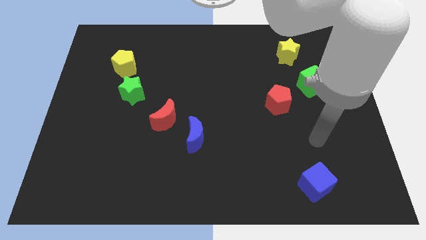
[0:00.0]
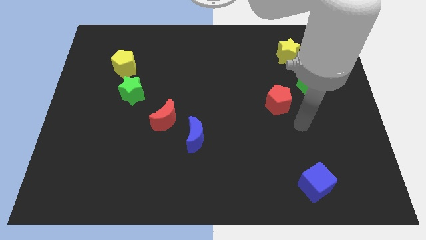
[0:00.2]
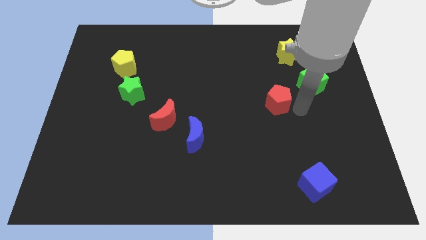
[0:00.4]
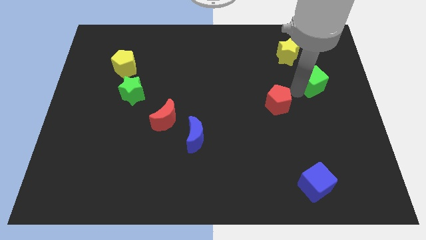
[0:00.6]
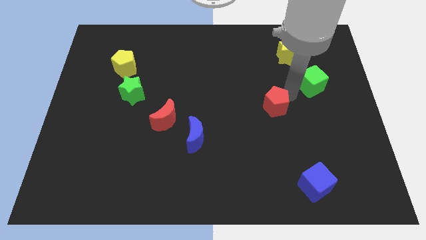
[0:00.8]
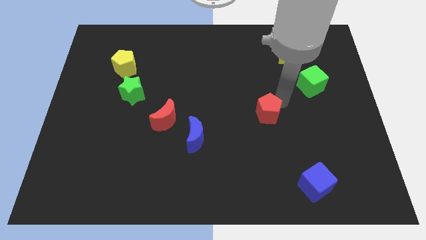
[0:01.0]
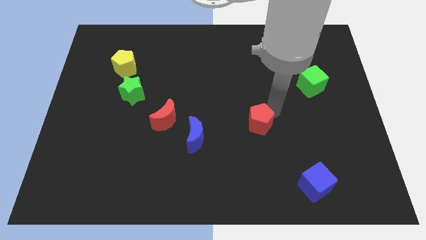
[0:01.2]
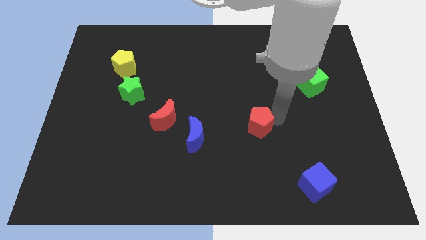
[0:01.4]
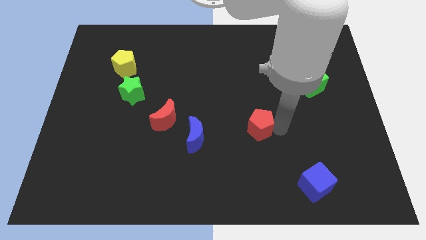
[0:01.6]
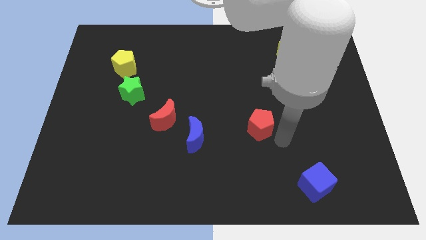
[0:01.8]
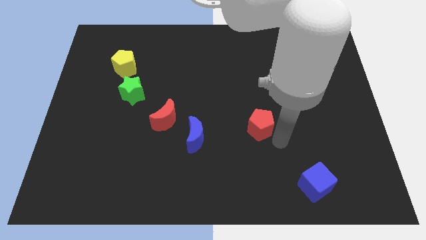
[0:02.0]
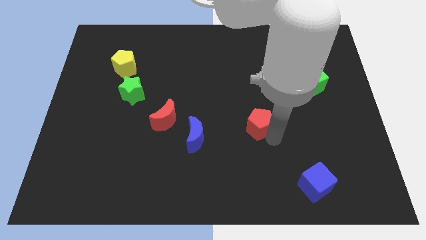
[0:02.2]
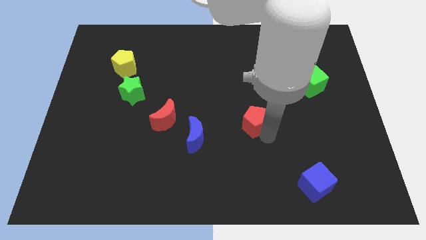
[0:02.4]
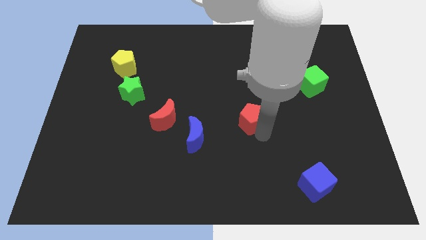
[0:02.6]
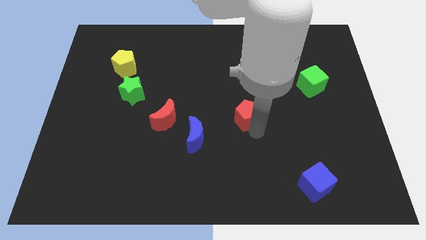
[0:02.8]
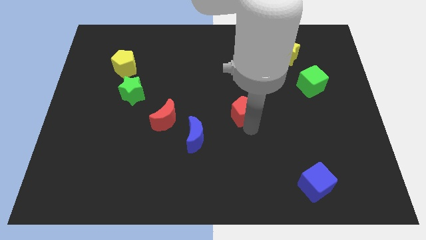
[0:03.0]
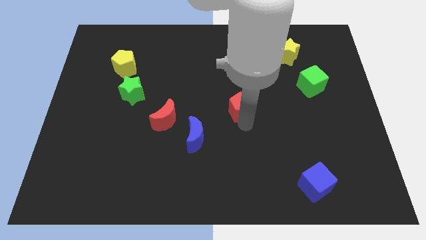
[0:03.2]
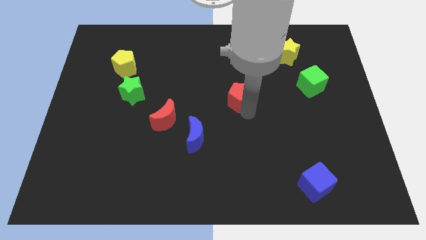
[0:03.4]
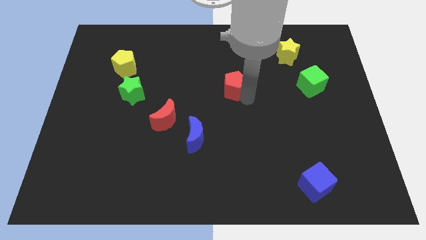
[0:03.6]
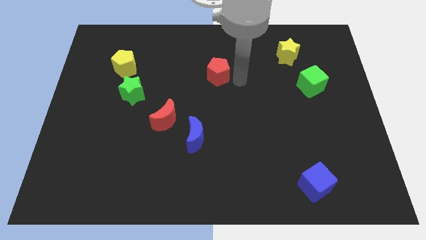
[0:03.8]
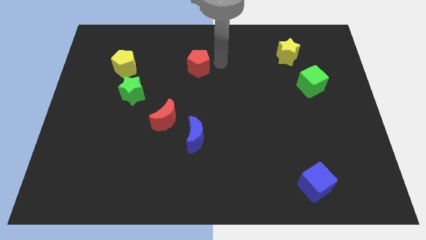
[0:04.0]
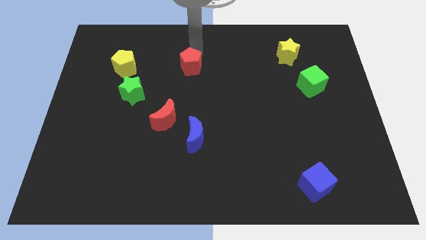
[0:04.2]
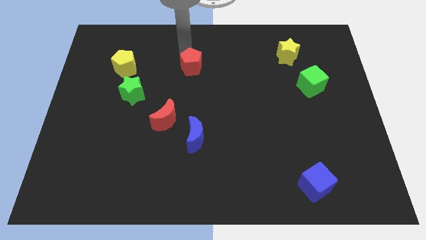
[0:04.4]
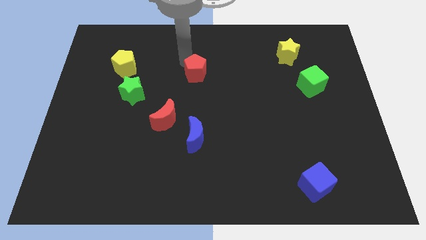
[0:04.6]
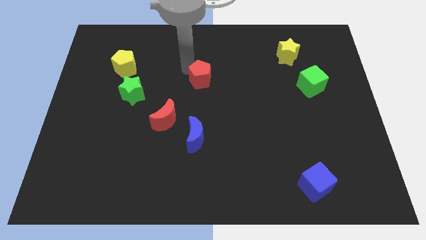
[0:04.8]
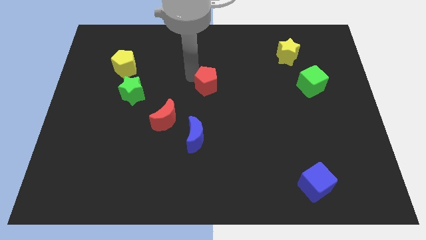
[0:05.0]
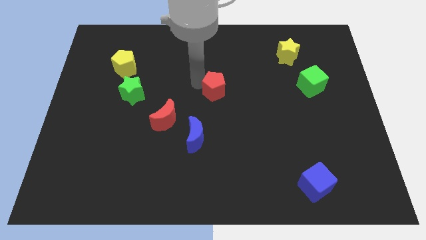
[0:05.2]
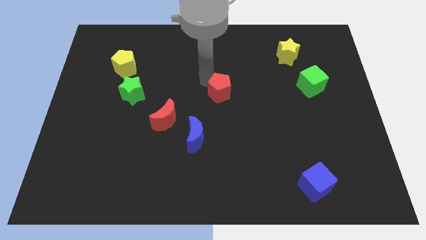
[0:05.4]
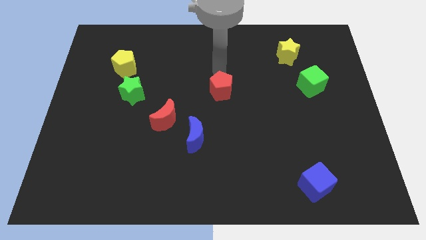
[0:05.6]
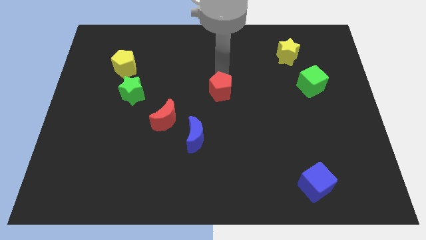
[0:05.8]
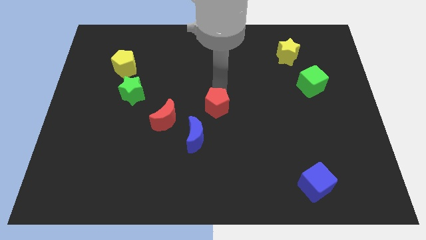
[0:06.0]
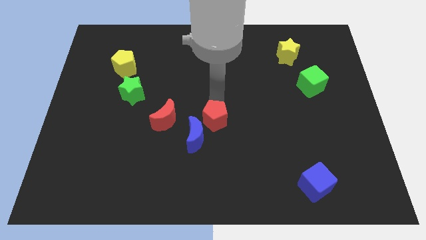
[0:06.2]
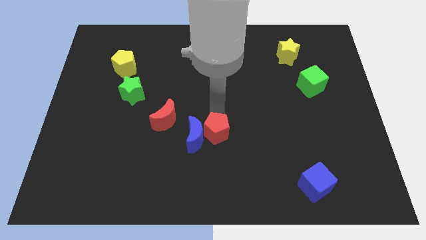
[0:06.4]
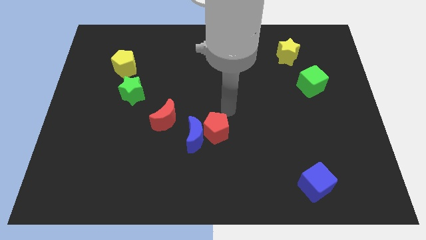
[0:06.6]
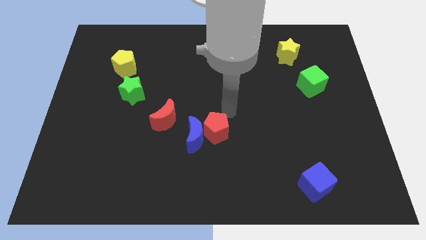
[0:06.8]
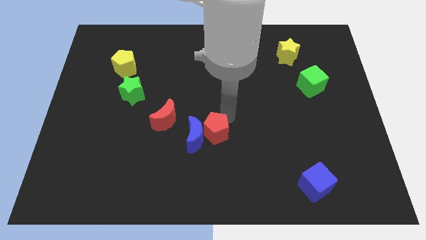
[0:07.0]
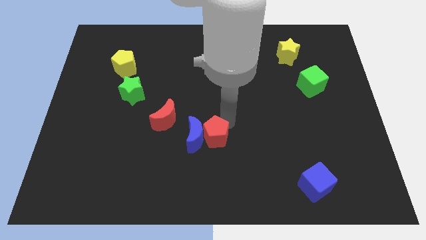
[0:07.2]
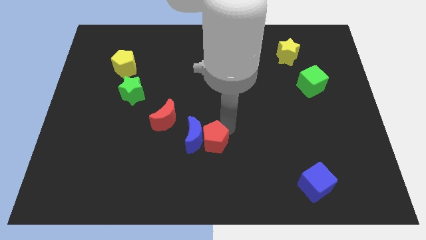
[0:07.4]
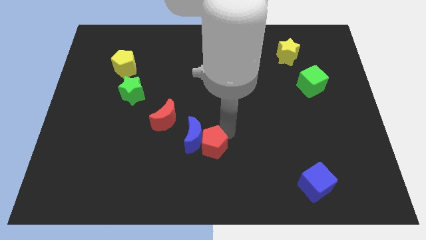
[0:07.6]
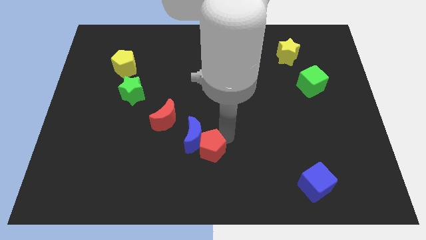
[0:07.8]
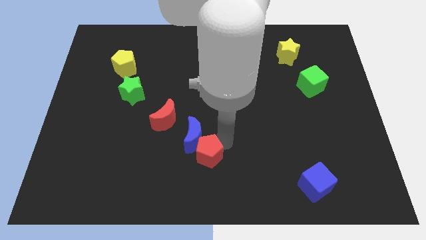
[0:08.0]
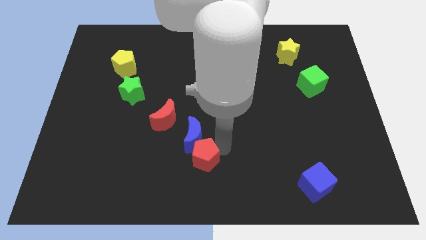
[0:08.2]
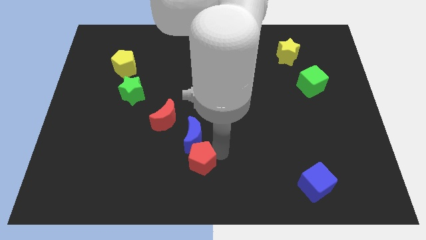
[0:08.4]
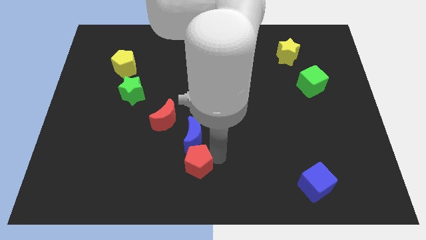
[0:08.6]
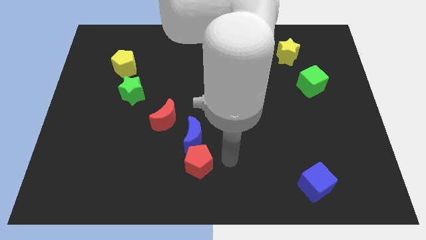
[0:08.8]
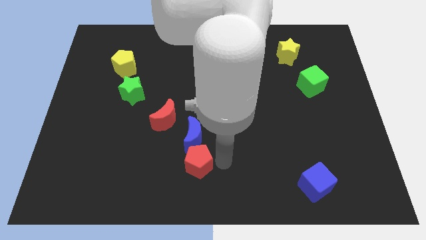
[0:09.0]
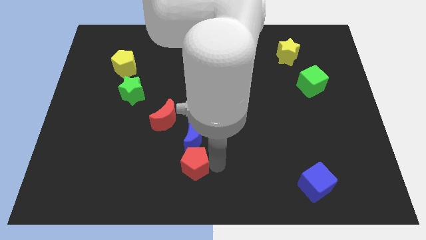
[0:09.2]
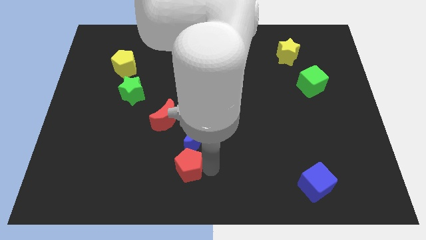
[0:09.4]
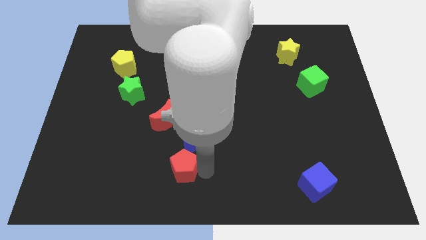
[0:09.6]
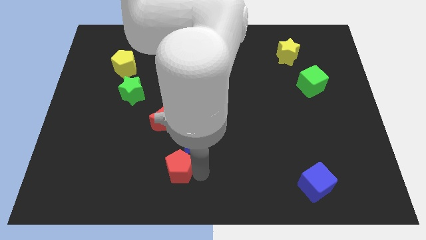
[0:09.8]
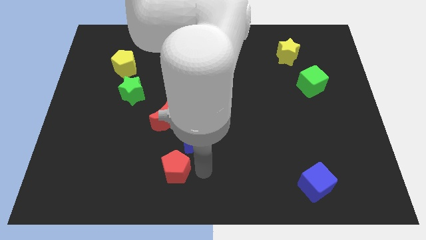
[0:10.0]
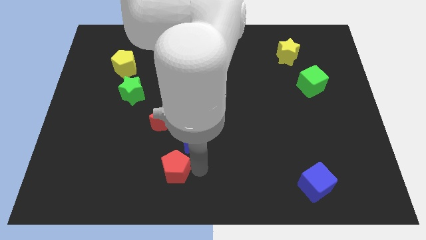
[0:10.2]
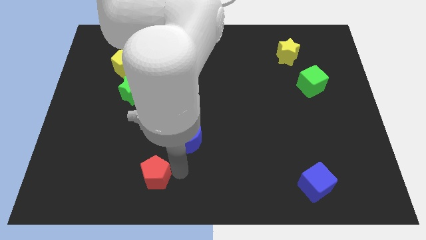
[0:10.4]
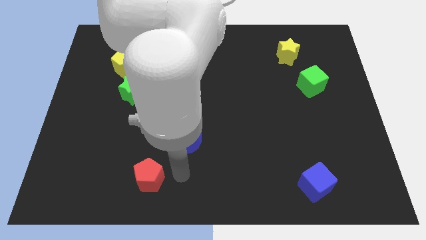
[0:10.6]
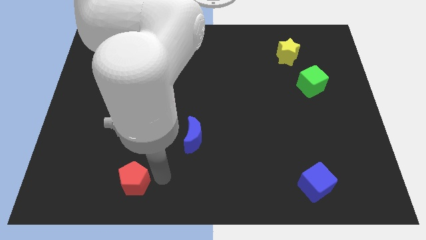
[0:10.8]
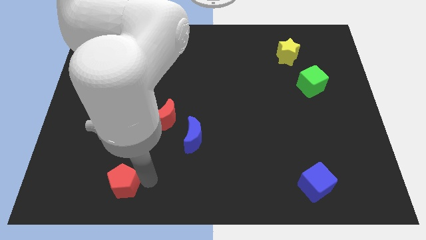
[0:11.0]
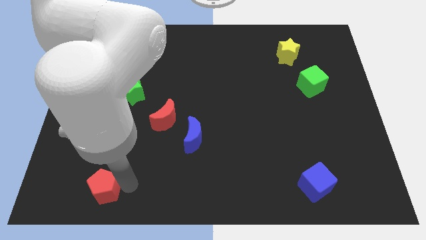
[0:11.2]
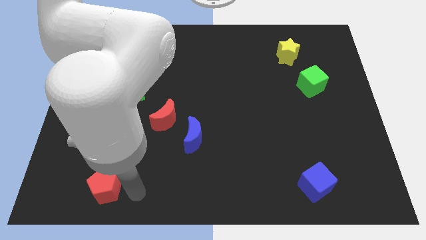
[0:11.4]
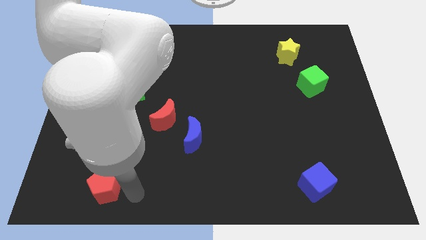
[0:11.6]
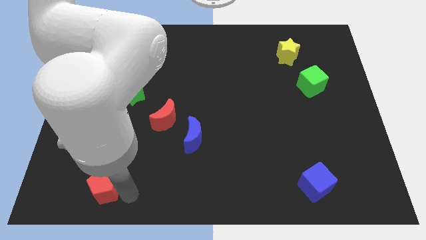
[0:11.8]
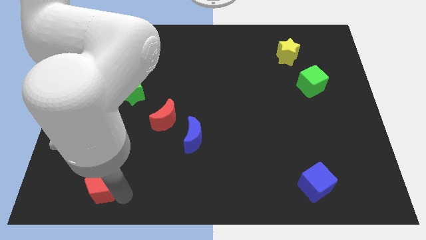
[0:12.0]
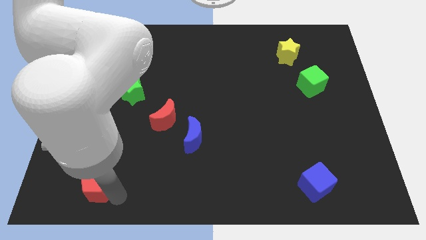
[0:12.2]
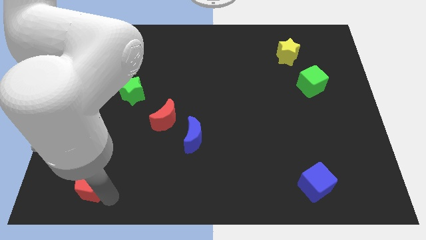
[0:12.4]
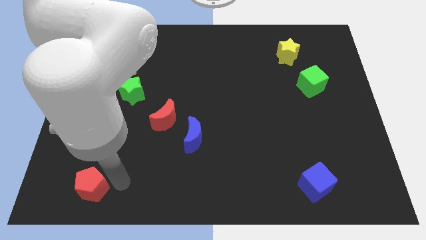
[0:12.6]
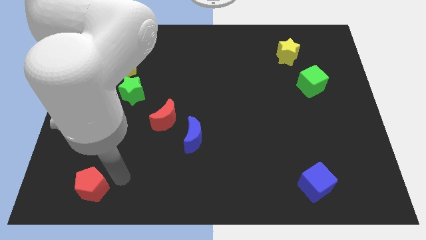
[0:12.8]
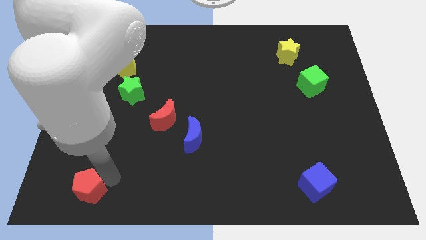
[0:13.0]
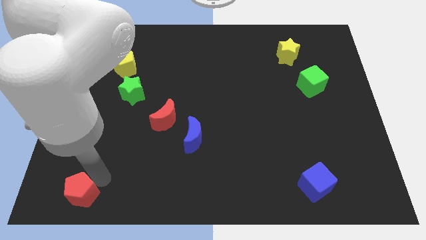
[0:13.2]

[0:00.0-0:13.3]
push the red pentagon to the bottom left of the board
